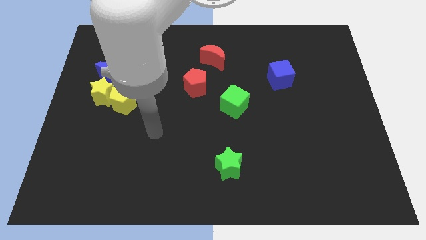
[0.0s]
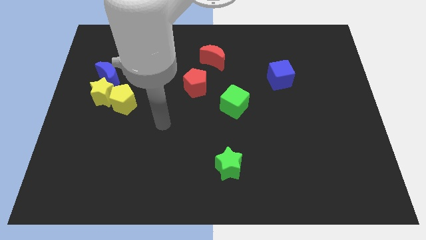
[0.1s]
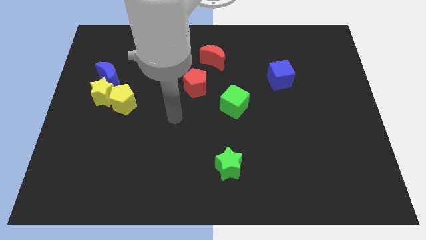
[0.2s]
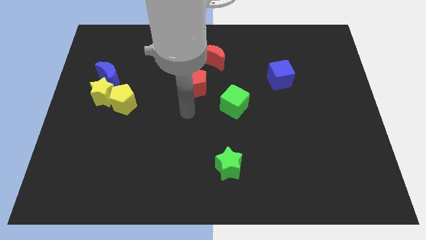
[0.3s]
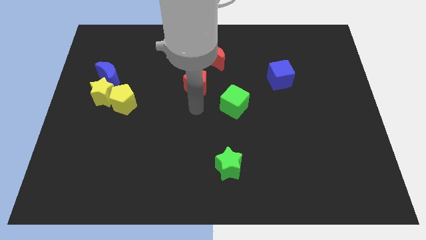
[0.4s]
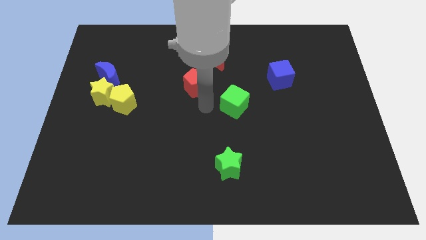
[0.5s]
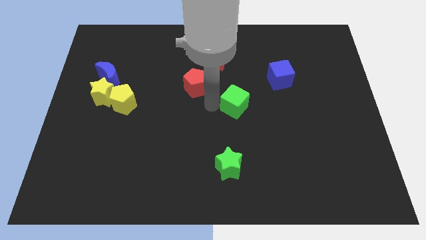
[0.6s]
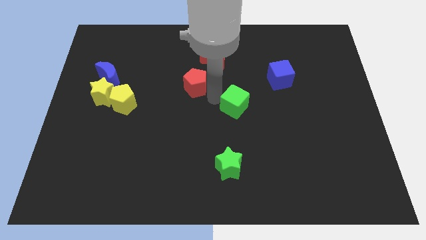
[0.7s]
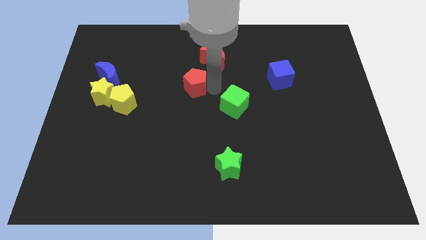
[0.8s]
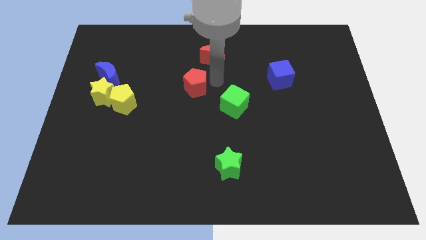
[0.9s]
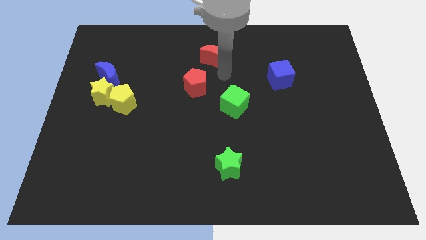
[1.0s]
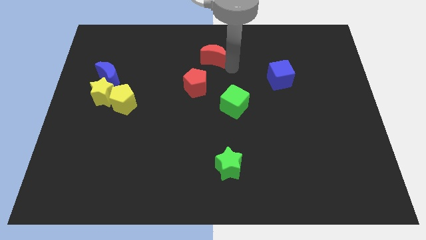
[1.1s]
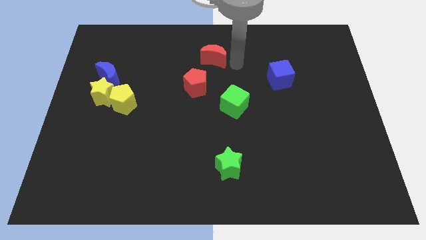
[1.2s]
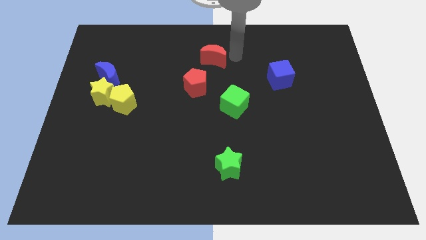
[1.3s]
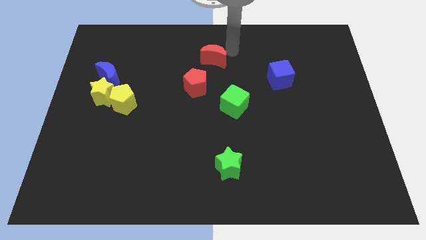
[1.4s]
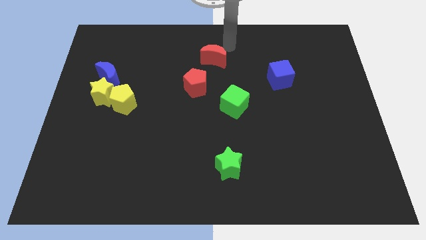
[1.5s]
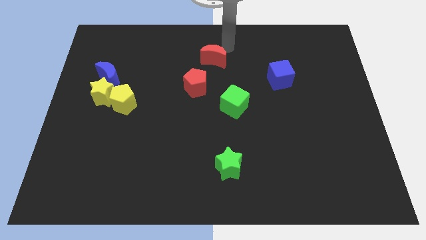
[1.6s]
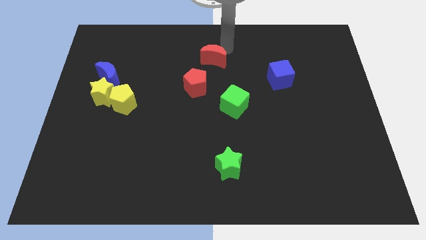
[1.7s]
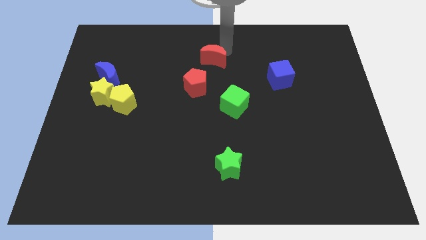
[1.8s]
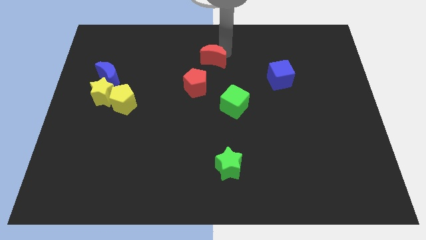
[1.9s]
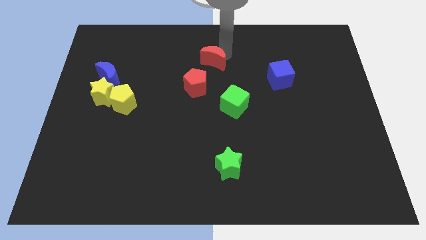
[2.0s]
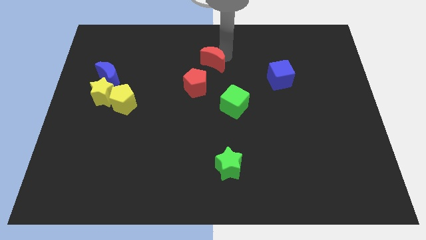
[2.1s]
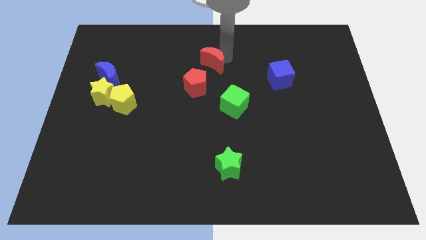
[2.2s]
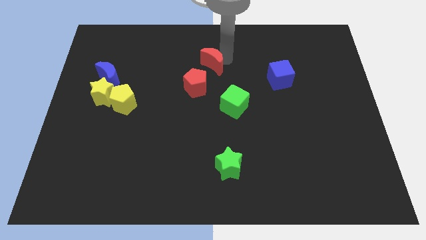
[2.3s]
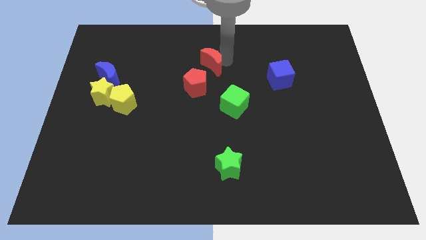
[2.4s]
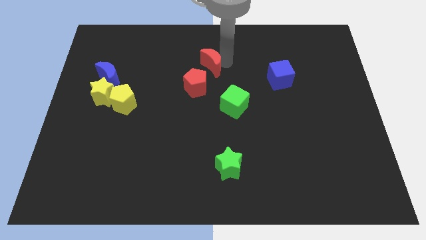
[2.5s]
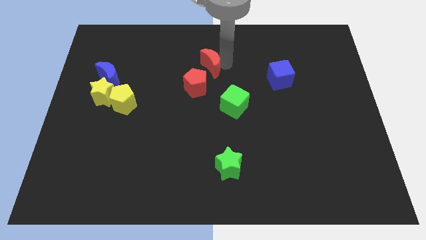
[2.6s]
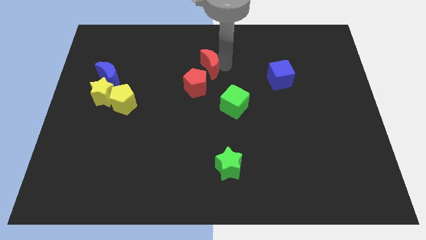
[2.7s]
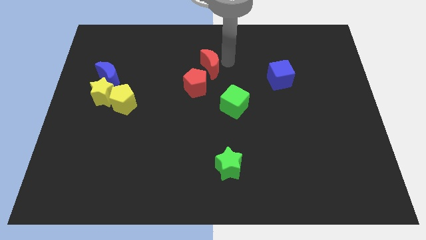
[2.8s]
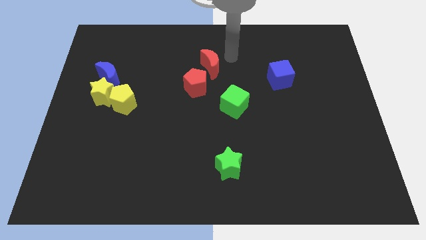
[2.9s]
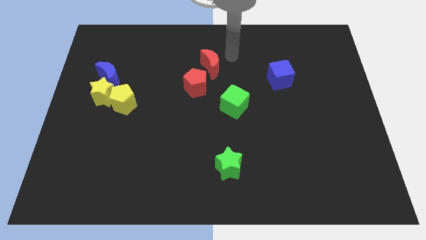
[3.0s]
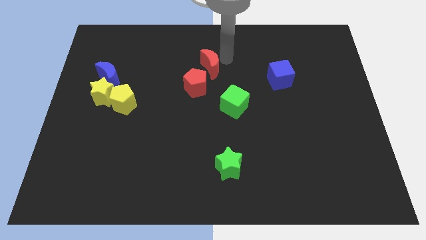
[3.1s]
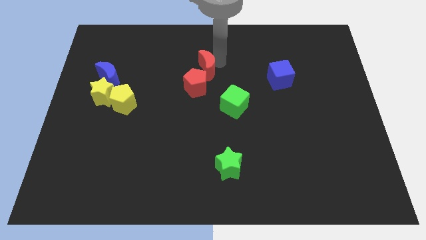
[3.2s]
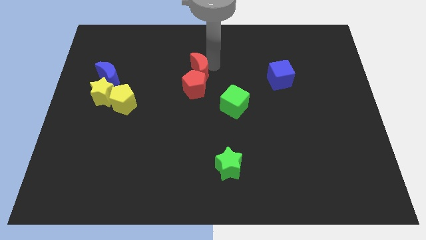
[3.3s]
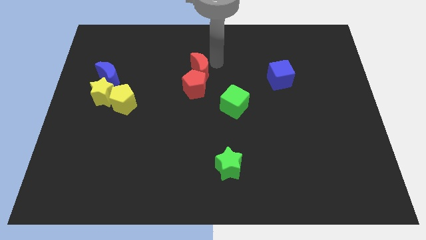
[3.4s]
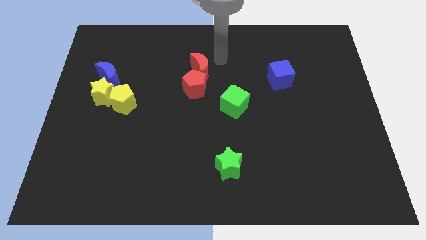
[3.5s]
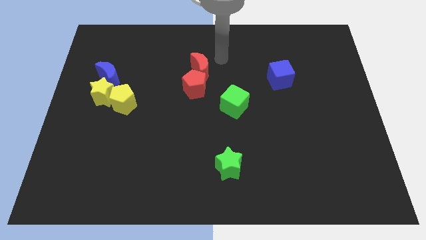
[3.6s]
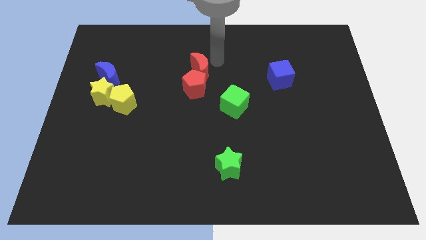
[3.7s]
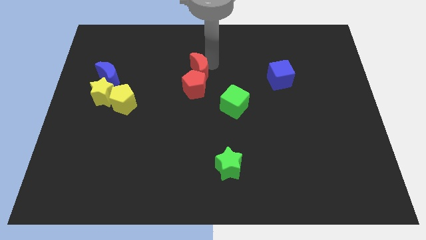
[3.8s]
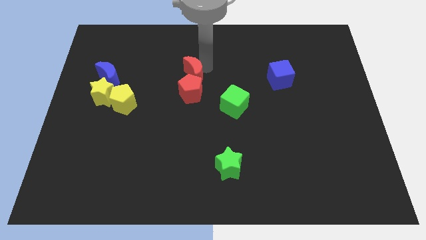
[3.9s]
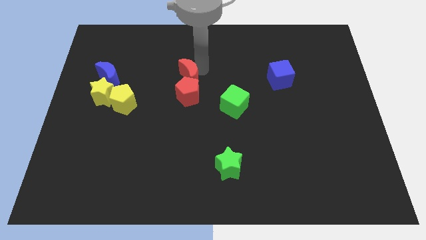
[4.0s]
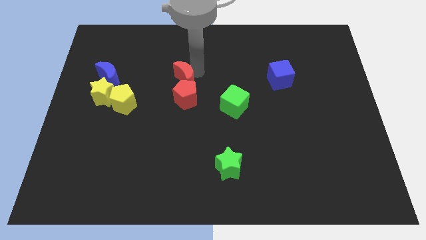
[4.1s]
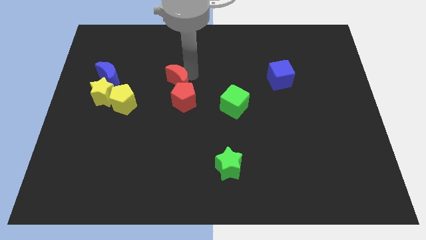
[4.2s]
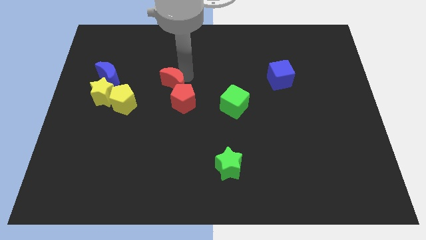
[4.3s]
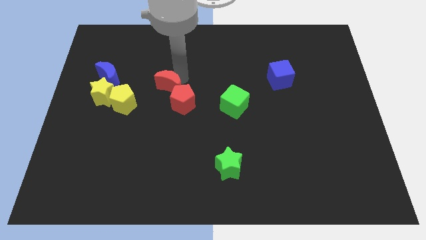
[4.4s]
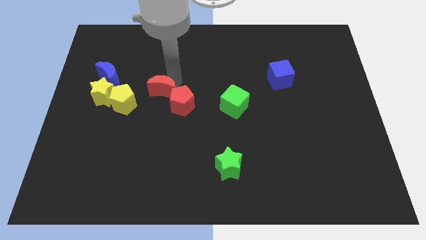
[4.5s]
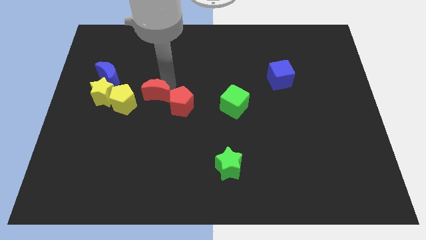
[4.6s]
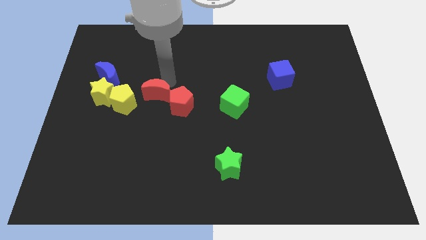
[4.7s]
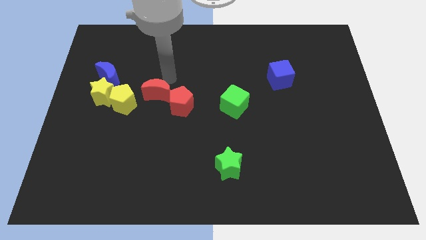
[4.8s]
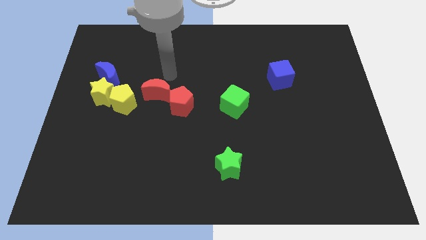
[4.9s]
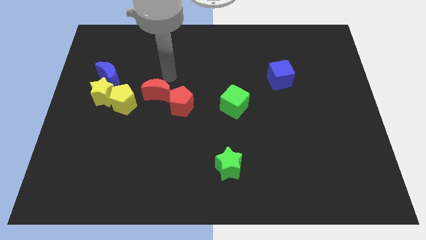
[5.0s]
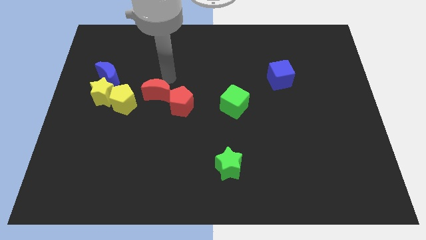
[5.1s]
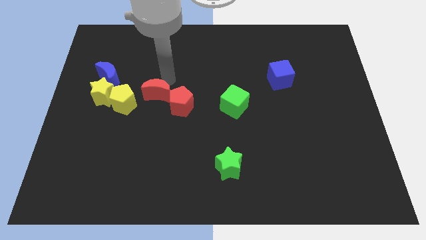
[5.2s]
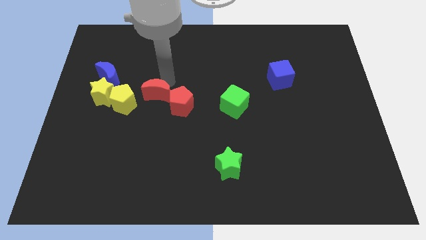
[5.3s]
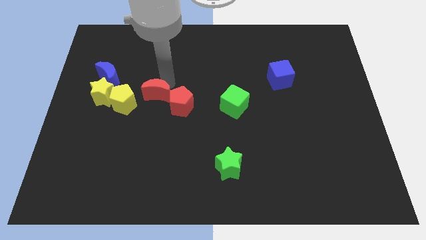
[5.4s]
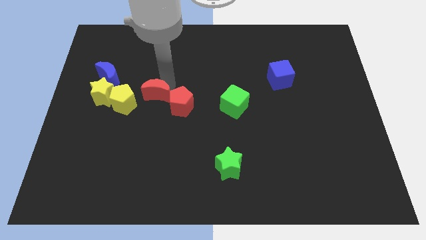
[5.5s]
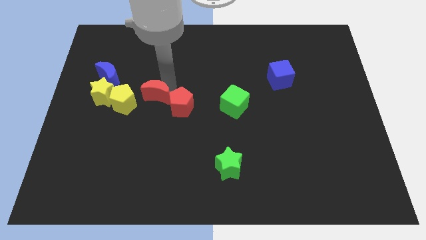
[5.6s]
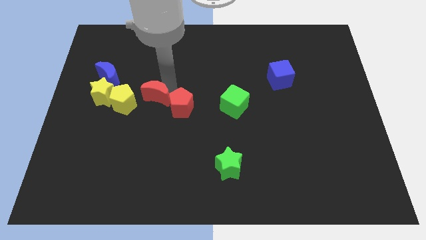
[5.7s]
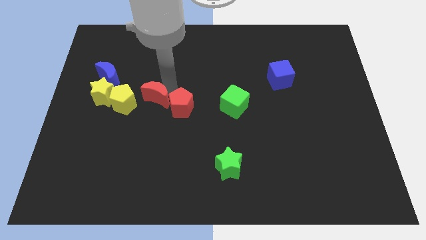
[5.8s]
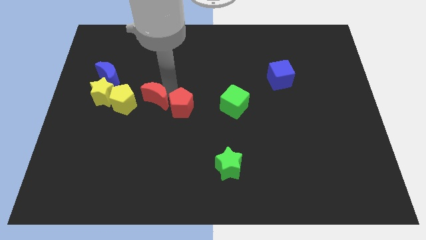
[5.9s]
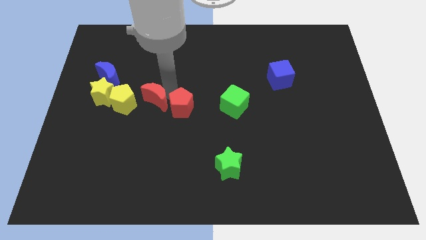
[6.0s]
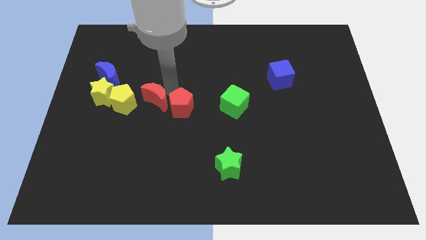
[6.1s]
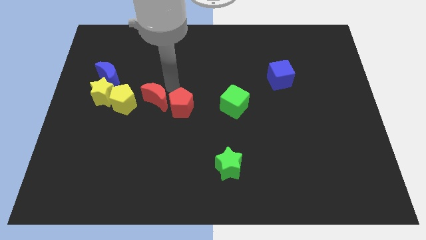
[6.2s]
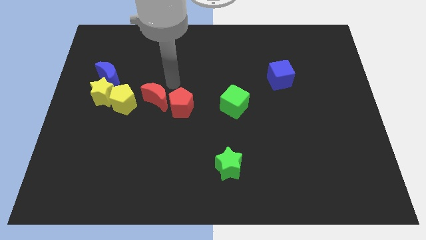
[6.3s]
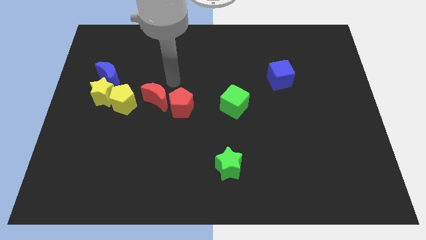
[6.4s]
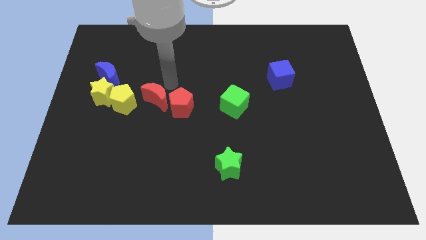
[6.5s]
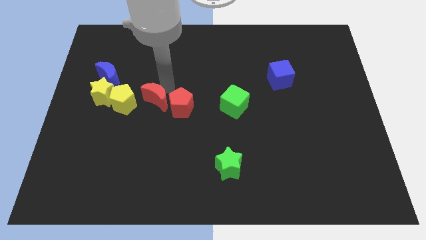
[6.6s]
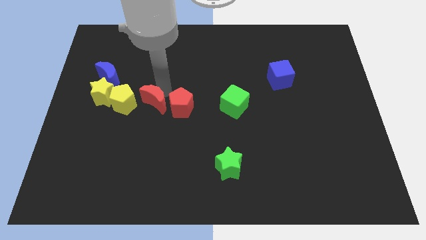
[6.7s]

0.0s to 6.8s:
move the red moon down and to the left diagonally

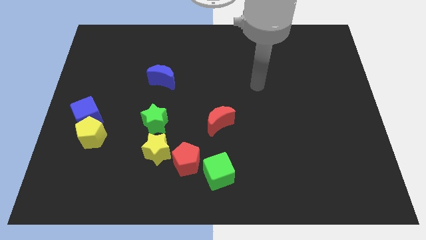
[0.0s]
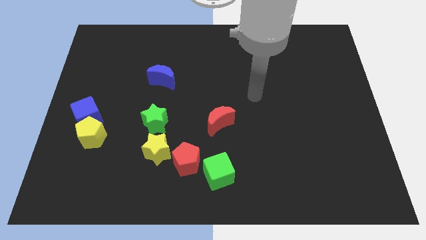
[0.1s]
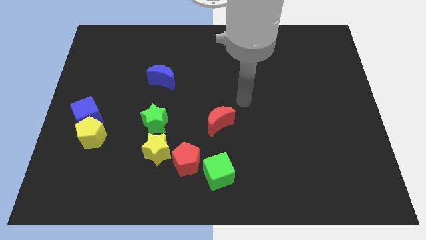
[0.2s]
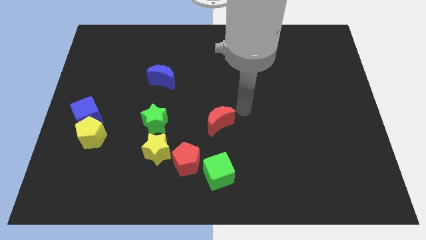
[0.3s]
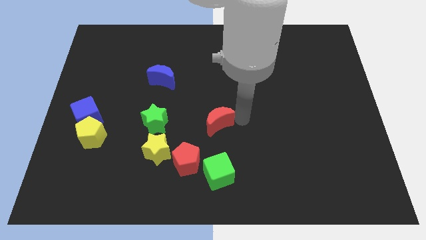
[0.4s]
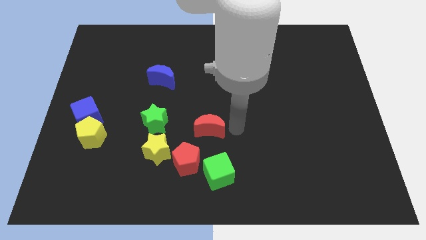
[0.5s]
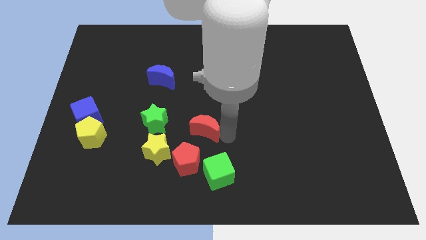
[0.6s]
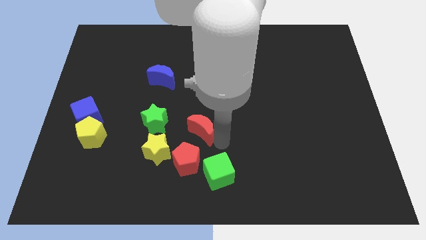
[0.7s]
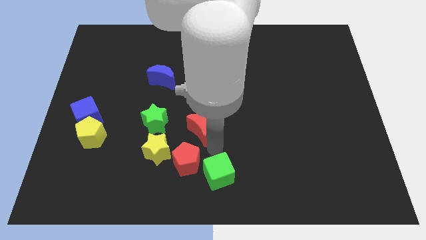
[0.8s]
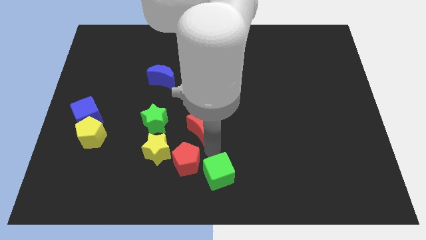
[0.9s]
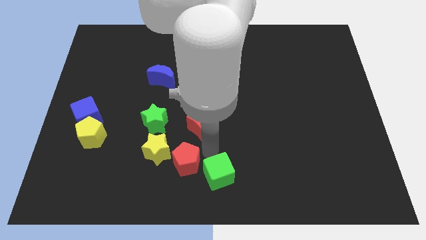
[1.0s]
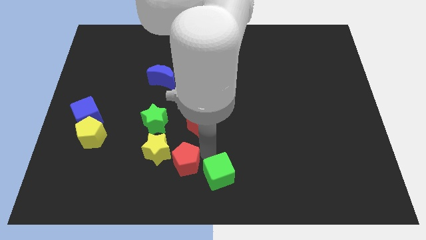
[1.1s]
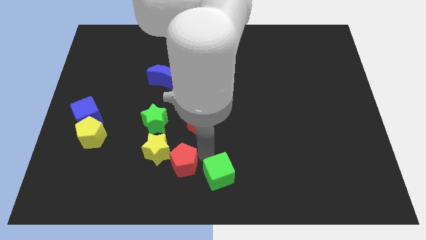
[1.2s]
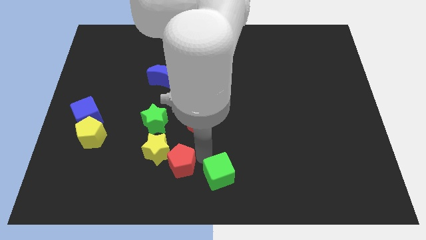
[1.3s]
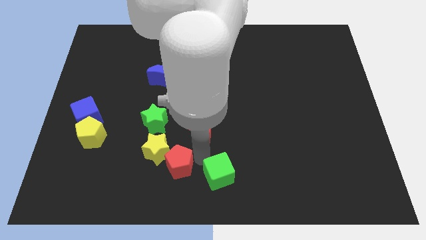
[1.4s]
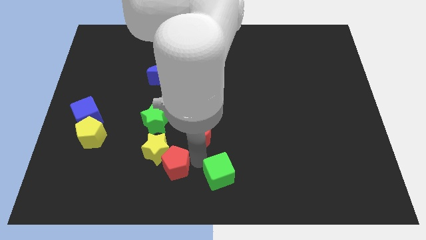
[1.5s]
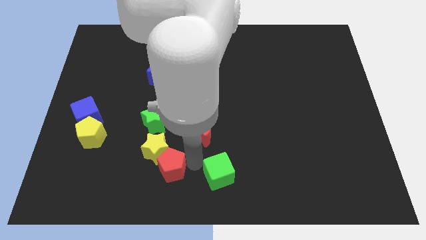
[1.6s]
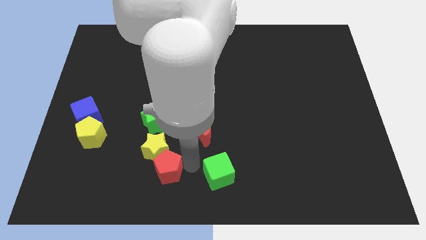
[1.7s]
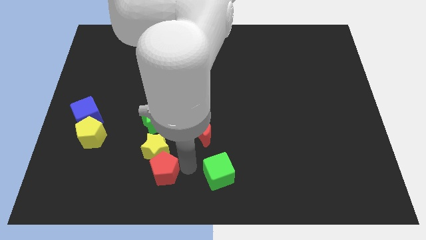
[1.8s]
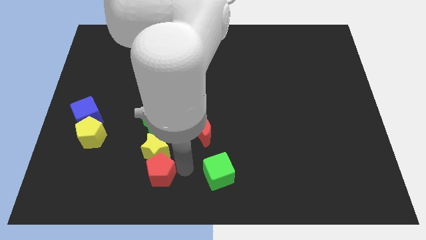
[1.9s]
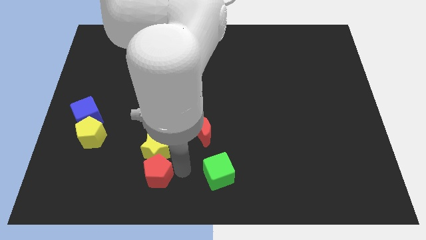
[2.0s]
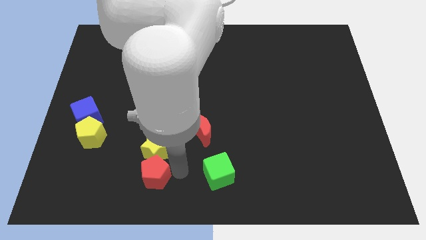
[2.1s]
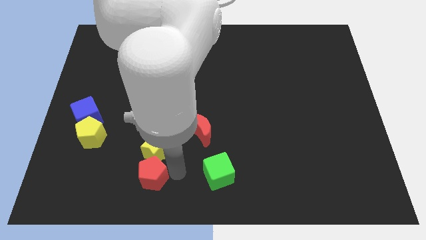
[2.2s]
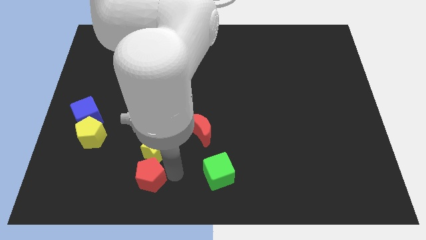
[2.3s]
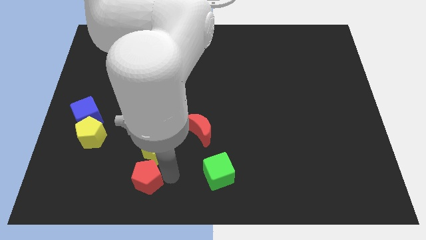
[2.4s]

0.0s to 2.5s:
slightly slide the red pentagon to the left
